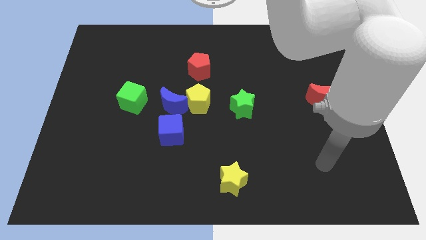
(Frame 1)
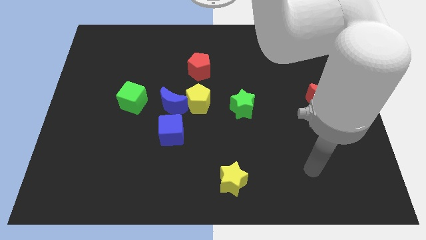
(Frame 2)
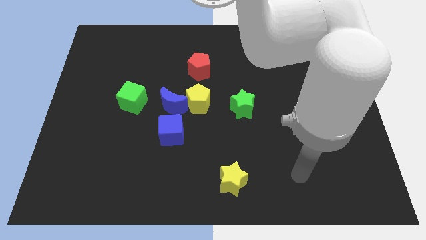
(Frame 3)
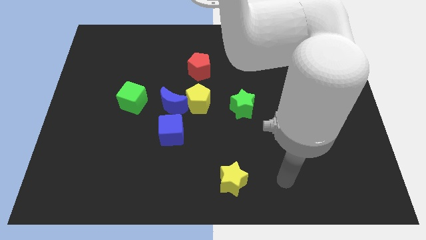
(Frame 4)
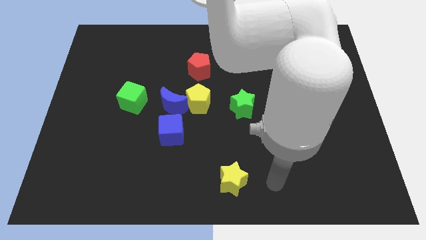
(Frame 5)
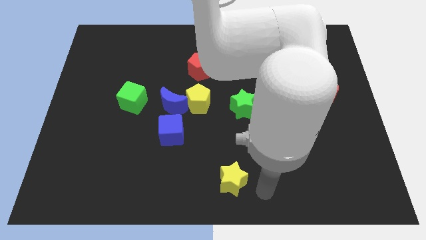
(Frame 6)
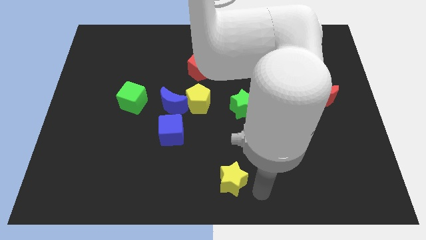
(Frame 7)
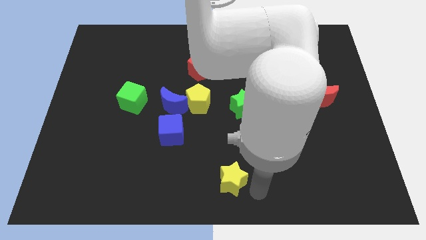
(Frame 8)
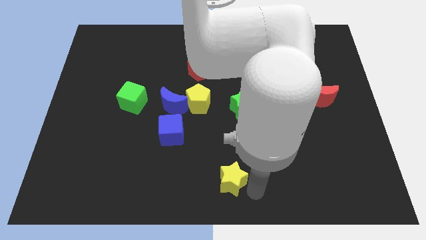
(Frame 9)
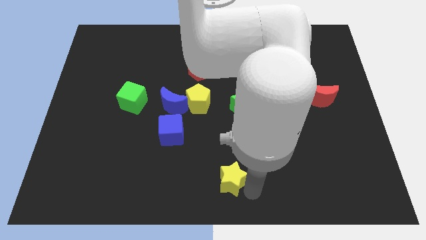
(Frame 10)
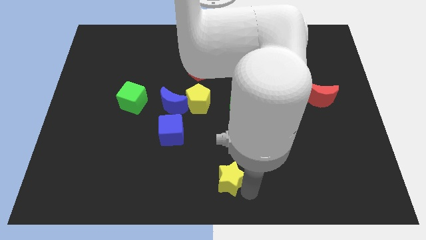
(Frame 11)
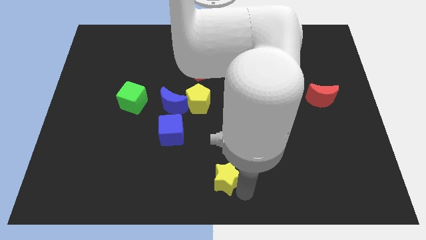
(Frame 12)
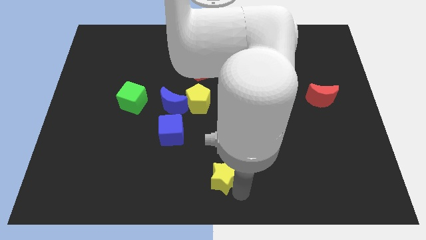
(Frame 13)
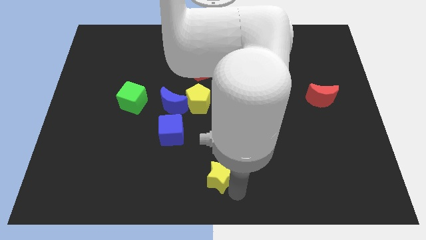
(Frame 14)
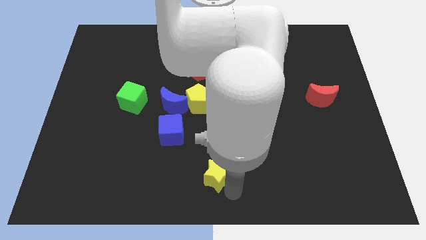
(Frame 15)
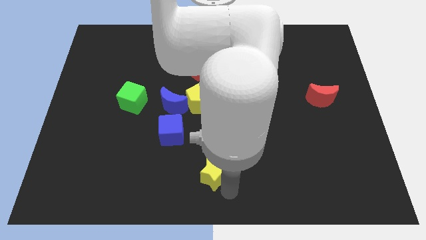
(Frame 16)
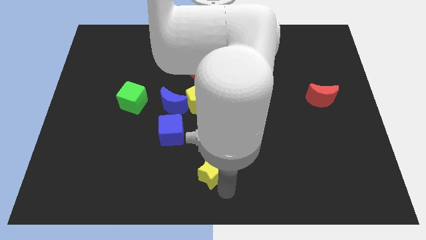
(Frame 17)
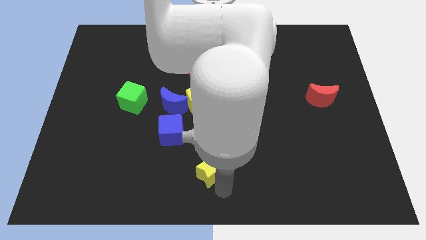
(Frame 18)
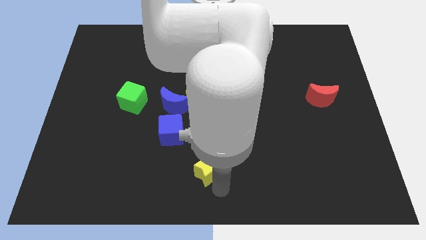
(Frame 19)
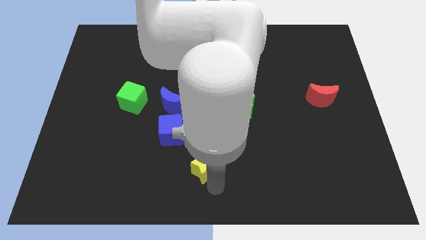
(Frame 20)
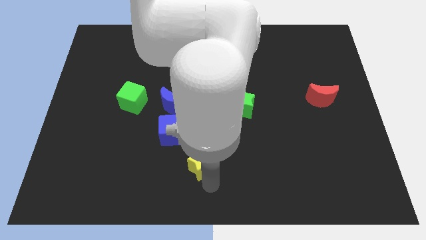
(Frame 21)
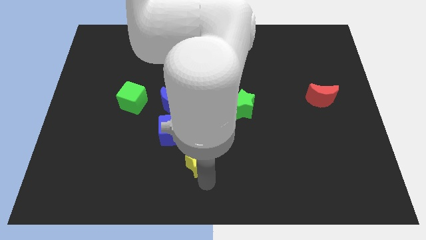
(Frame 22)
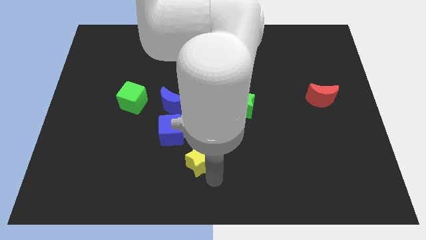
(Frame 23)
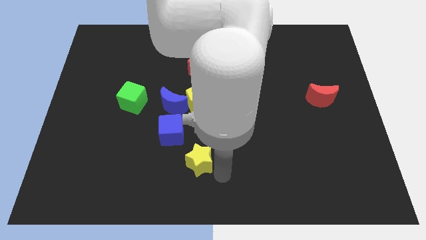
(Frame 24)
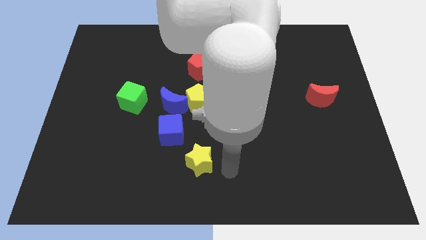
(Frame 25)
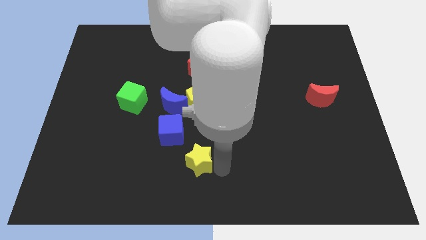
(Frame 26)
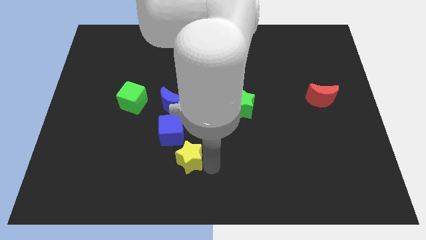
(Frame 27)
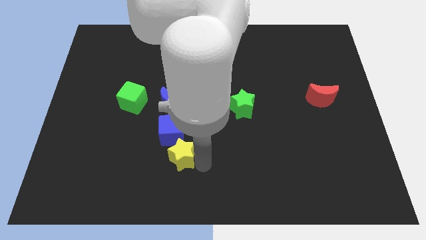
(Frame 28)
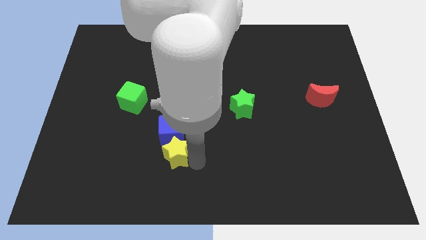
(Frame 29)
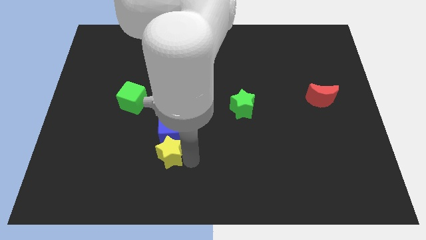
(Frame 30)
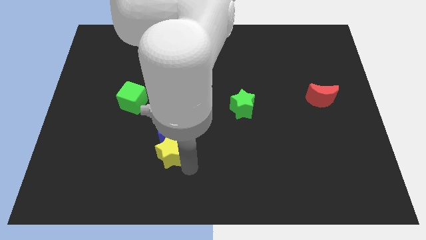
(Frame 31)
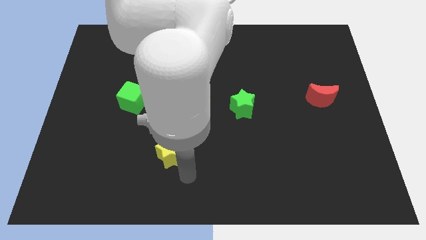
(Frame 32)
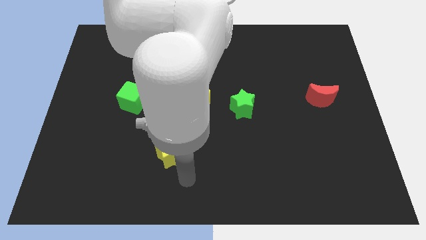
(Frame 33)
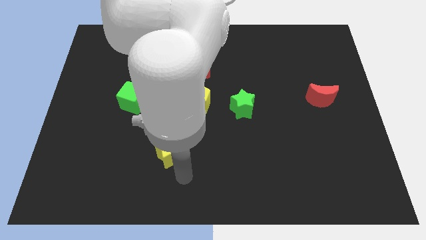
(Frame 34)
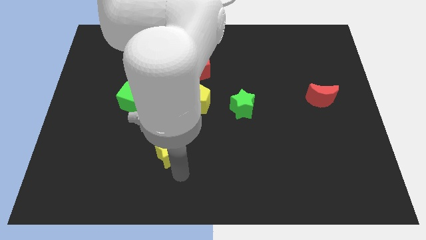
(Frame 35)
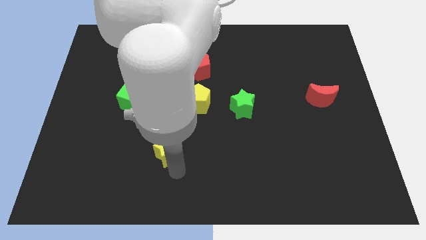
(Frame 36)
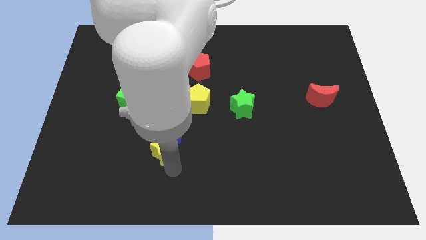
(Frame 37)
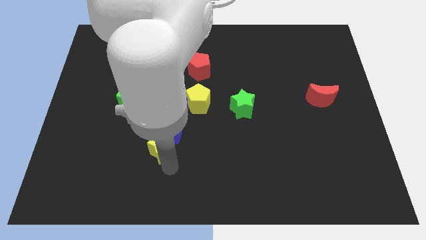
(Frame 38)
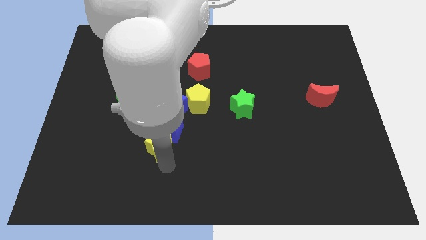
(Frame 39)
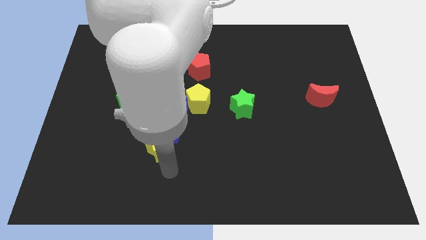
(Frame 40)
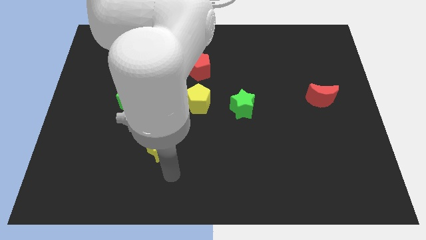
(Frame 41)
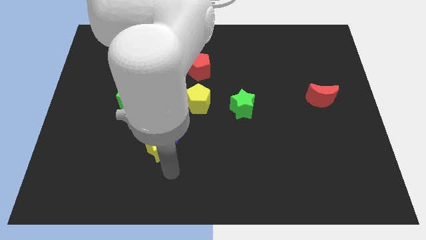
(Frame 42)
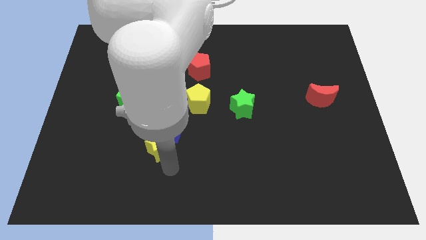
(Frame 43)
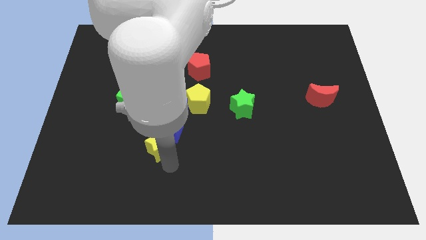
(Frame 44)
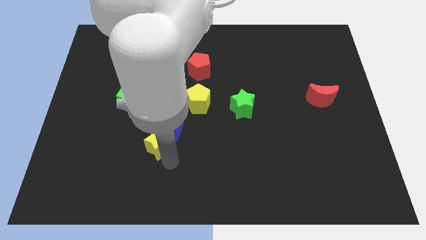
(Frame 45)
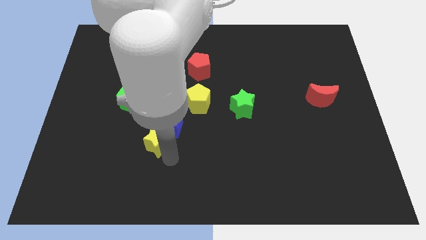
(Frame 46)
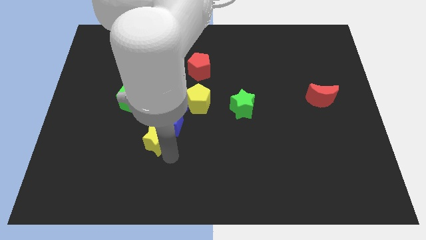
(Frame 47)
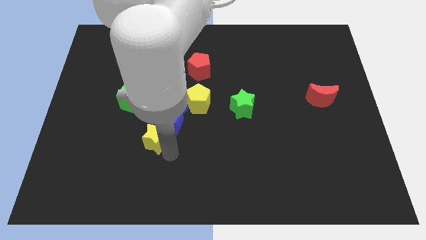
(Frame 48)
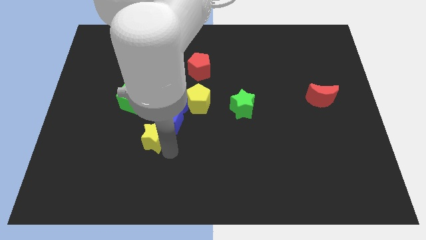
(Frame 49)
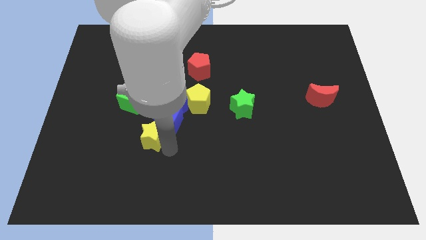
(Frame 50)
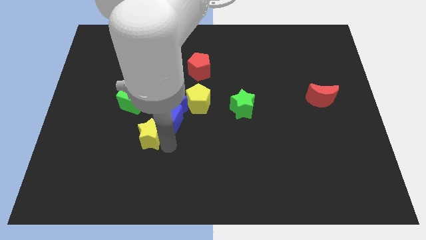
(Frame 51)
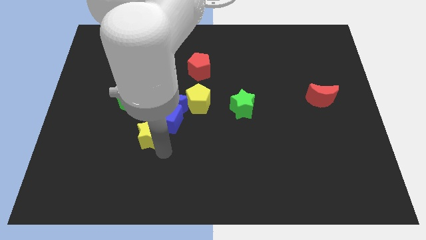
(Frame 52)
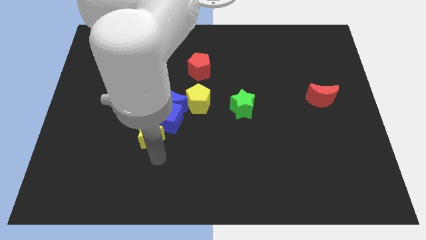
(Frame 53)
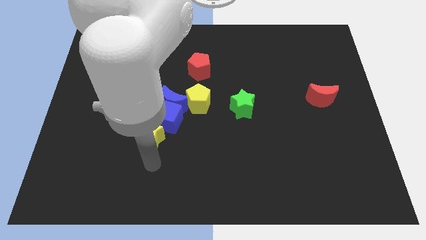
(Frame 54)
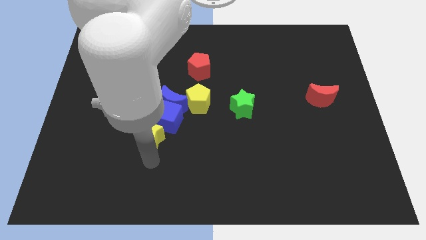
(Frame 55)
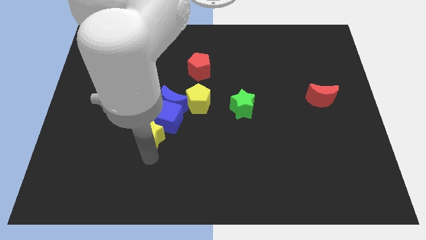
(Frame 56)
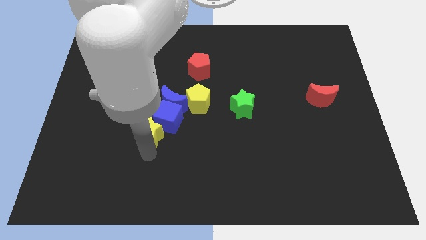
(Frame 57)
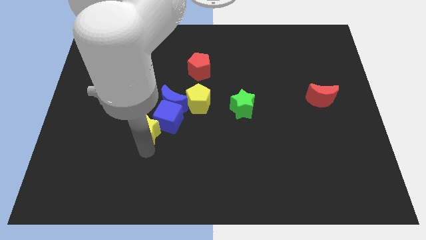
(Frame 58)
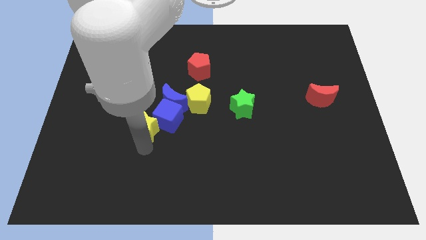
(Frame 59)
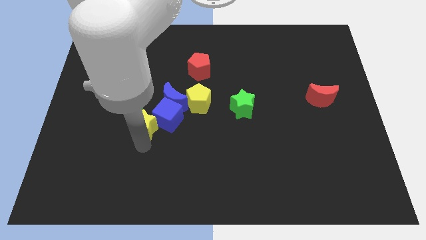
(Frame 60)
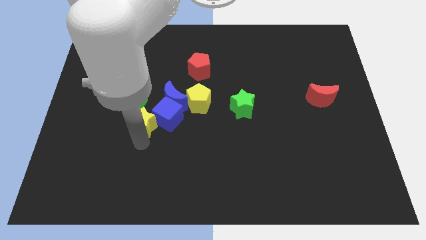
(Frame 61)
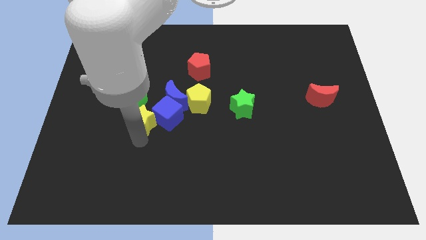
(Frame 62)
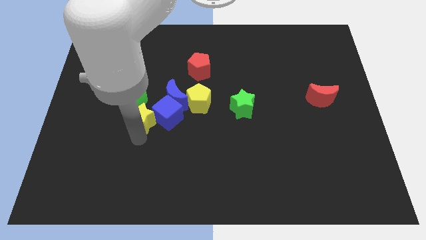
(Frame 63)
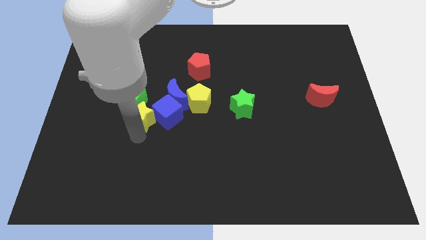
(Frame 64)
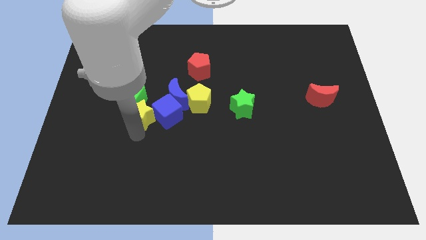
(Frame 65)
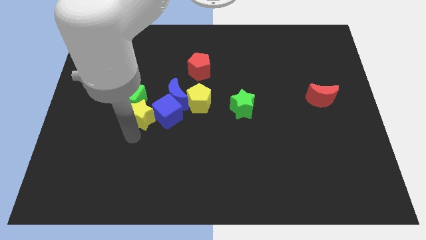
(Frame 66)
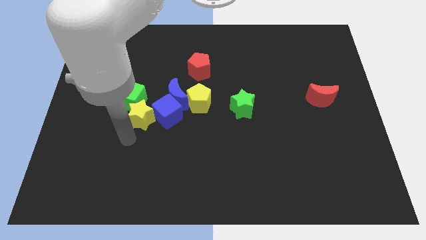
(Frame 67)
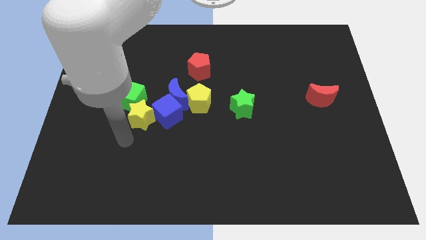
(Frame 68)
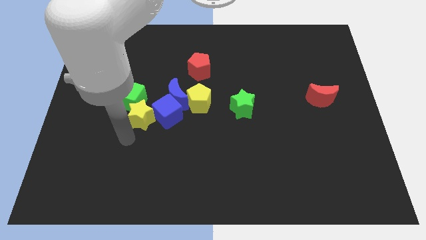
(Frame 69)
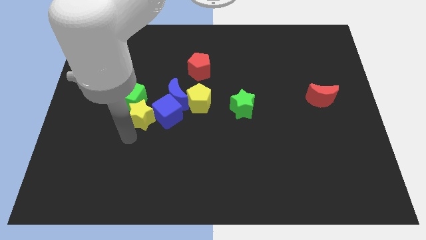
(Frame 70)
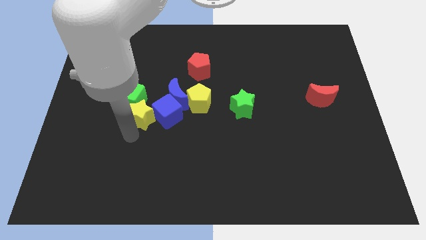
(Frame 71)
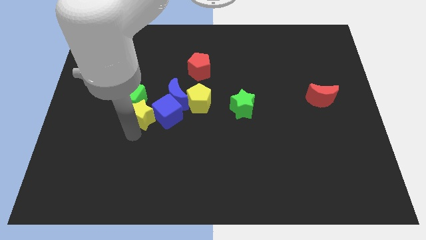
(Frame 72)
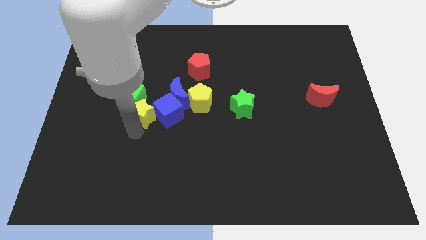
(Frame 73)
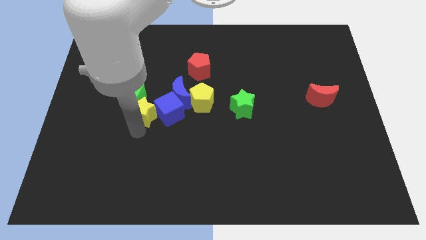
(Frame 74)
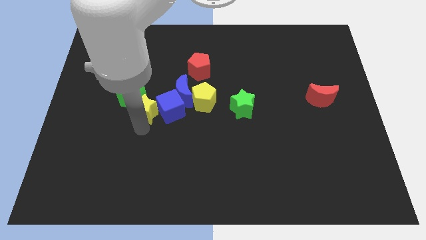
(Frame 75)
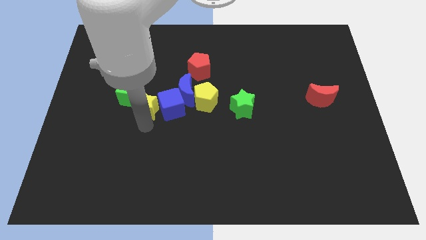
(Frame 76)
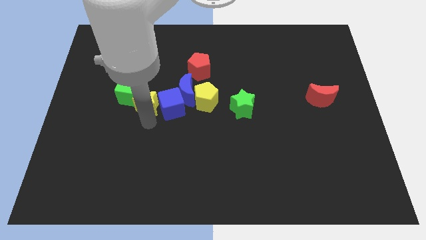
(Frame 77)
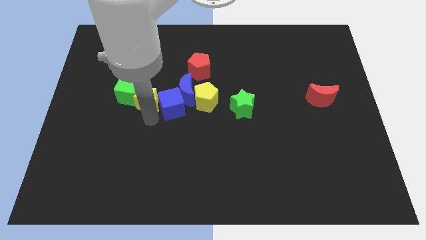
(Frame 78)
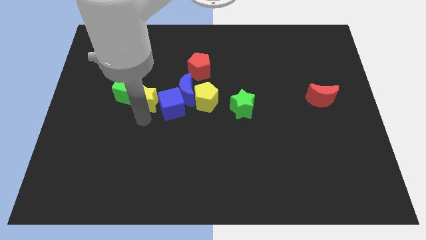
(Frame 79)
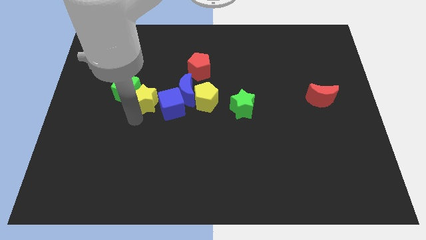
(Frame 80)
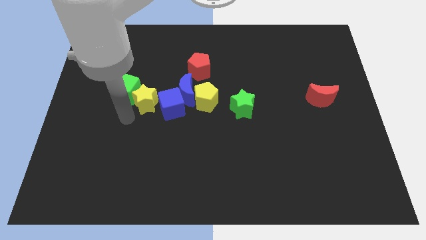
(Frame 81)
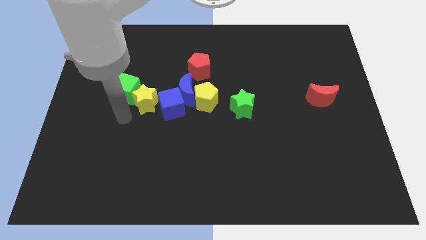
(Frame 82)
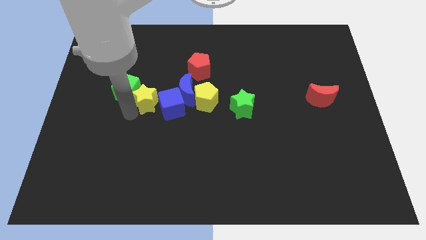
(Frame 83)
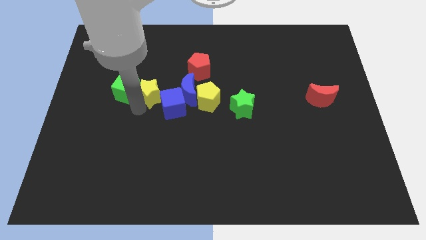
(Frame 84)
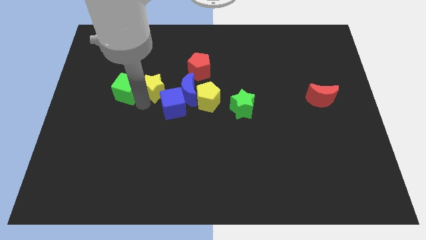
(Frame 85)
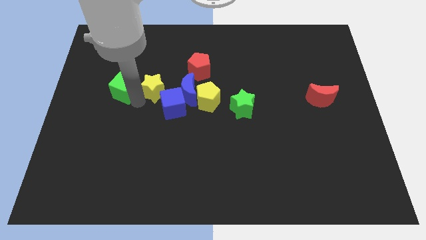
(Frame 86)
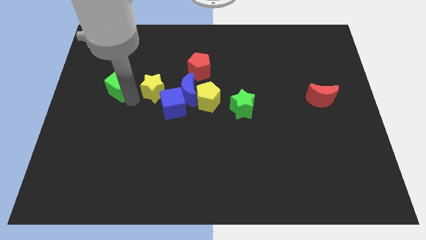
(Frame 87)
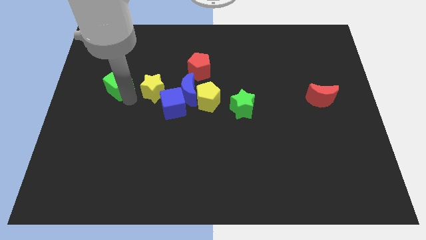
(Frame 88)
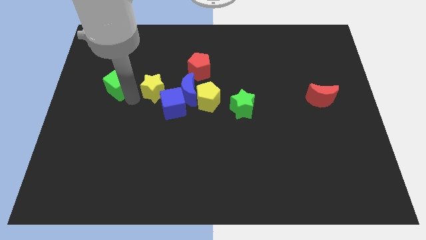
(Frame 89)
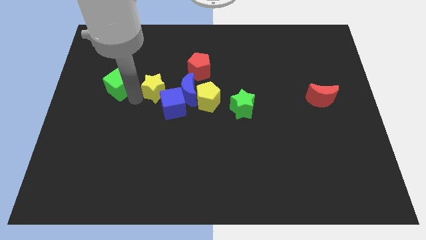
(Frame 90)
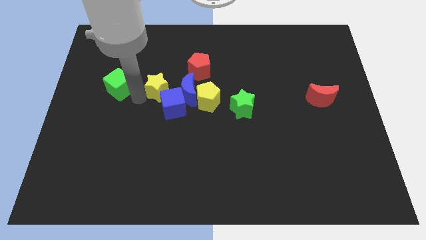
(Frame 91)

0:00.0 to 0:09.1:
move the yellow star diagonally down and to the left of the red pentagon
